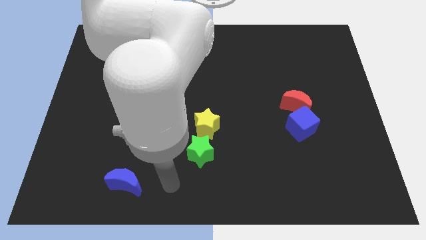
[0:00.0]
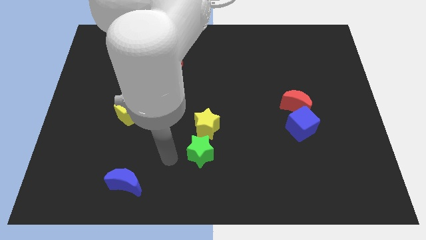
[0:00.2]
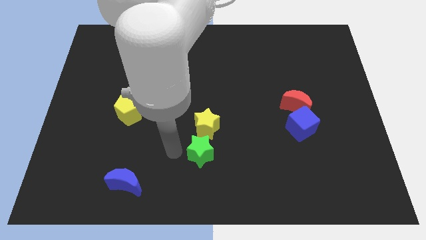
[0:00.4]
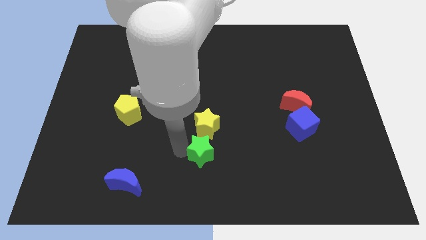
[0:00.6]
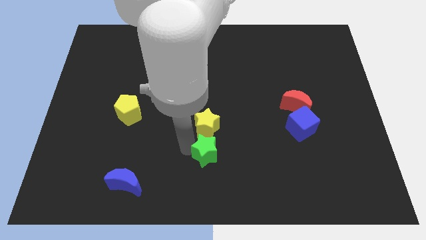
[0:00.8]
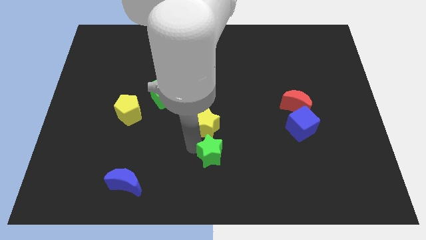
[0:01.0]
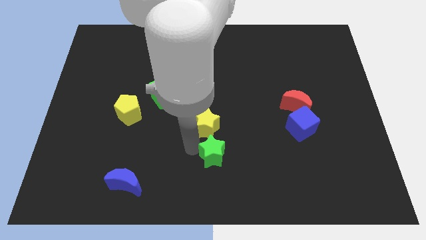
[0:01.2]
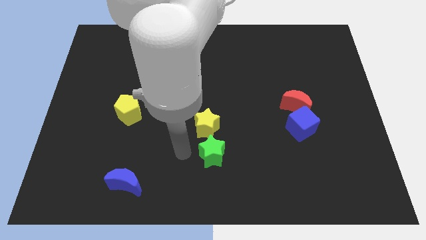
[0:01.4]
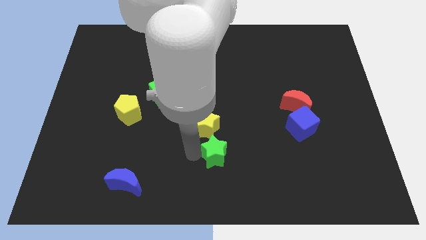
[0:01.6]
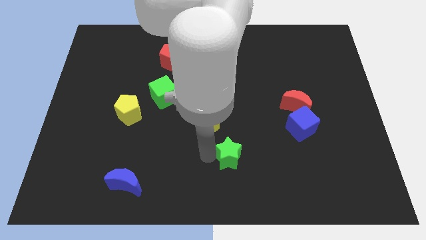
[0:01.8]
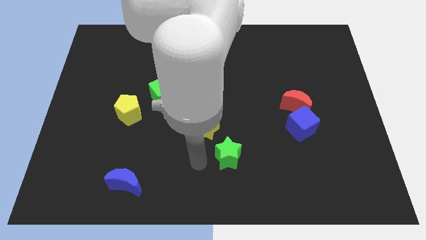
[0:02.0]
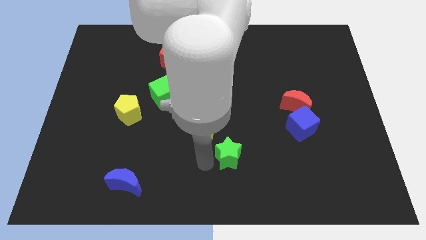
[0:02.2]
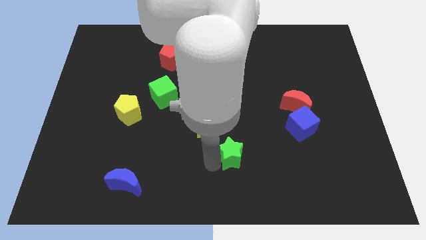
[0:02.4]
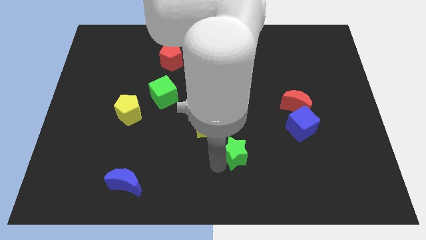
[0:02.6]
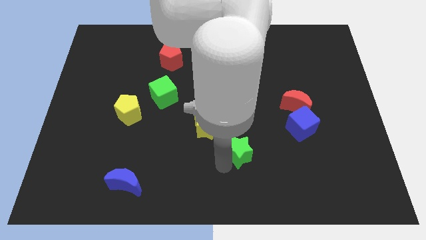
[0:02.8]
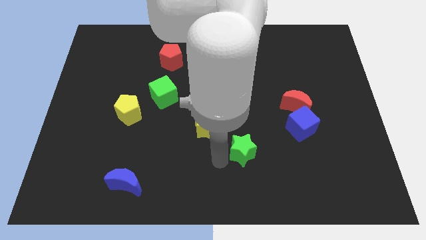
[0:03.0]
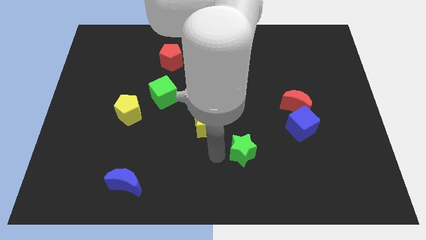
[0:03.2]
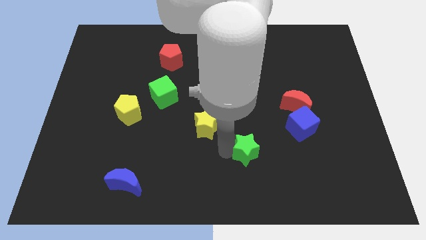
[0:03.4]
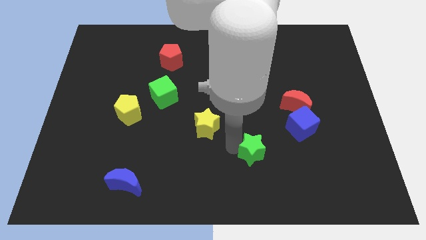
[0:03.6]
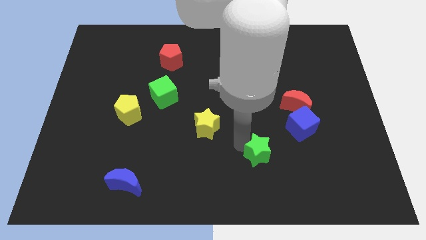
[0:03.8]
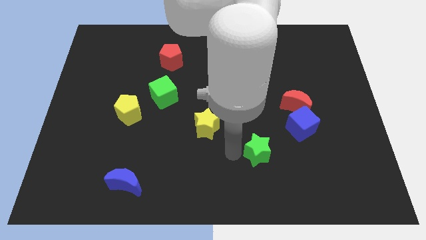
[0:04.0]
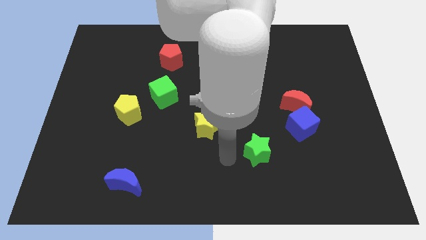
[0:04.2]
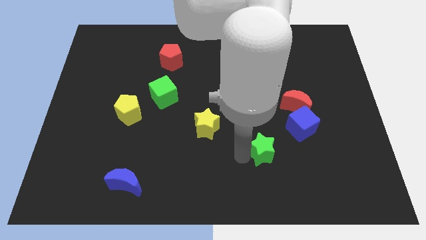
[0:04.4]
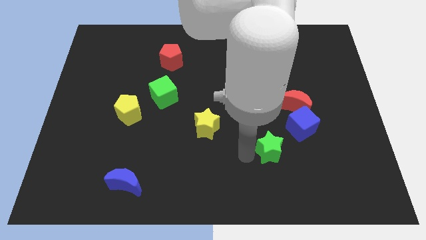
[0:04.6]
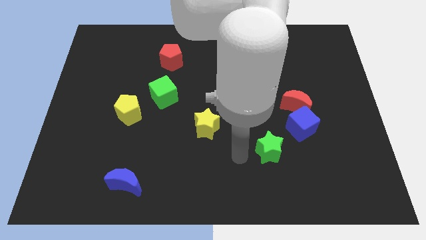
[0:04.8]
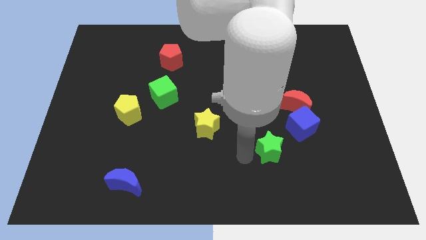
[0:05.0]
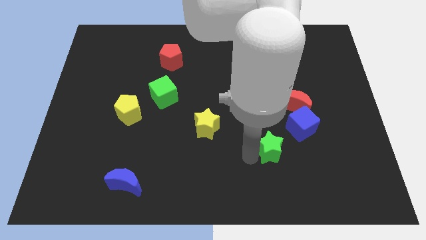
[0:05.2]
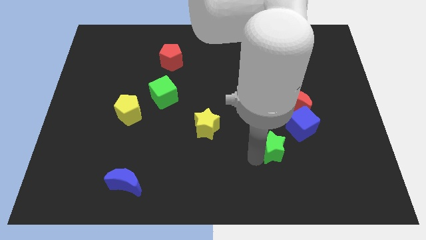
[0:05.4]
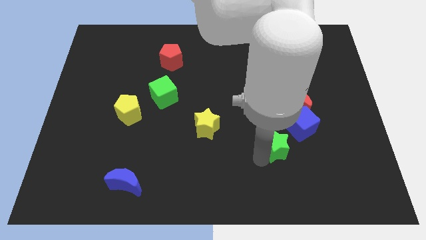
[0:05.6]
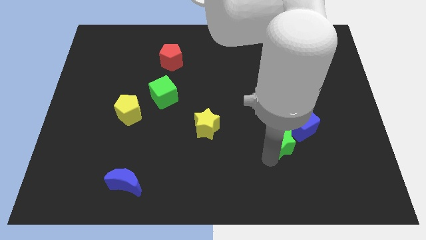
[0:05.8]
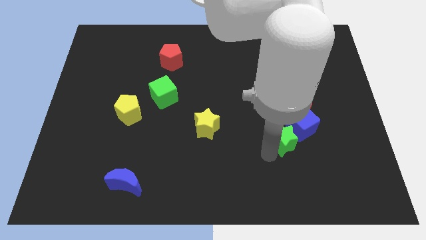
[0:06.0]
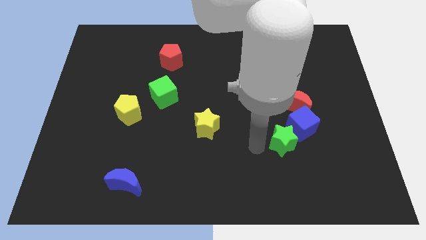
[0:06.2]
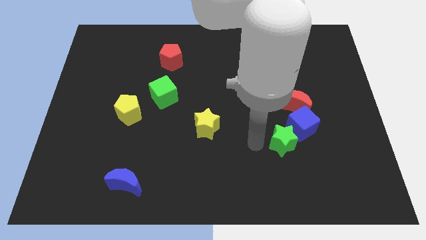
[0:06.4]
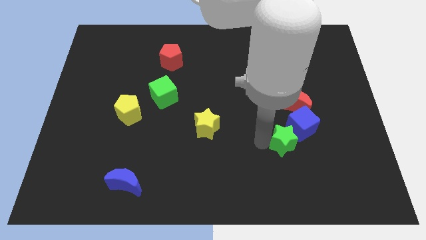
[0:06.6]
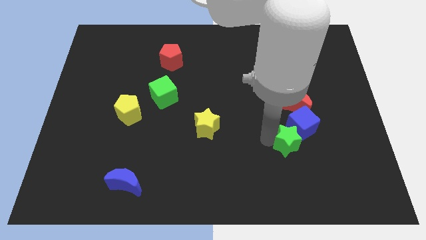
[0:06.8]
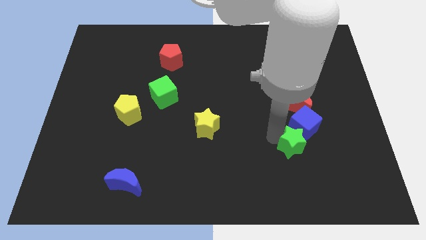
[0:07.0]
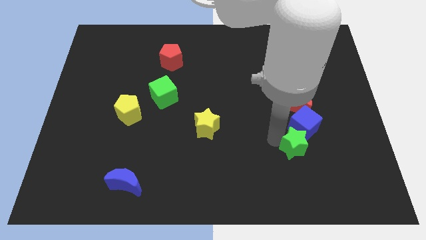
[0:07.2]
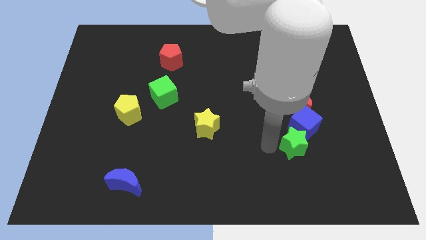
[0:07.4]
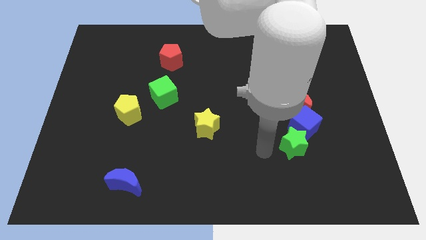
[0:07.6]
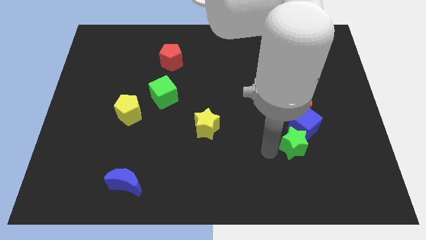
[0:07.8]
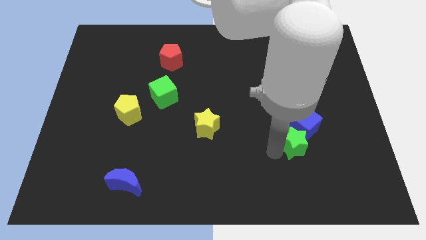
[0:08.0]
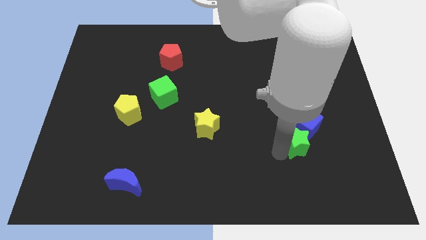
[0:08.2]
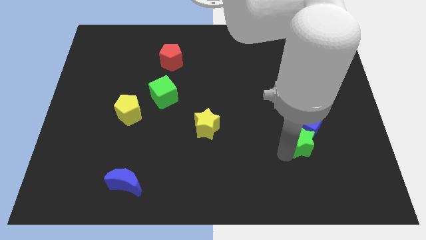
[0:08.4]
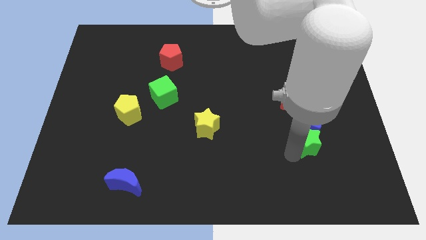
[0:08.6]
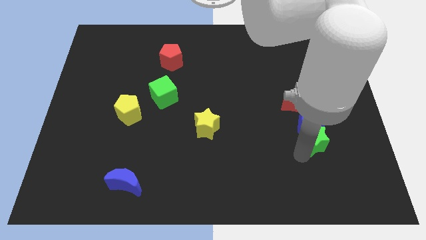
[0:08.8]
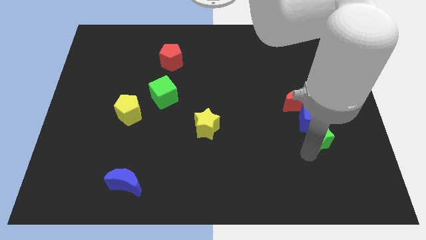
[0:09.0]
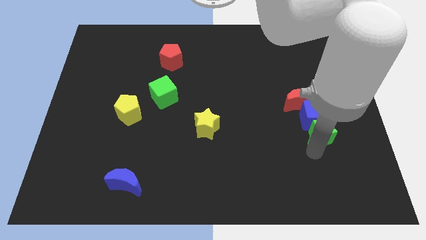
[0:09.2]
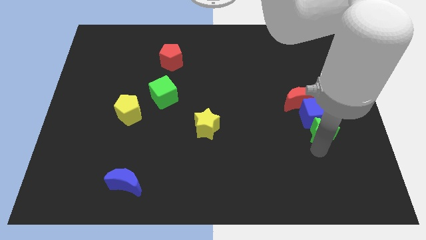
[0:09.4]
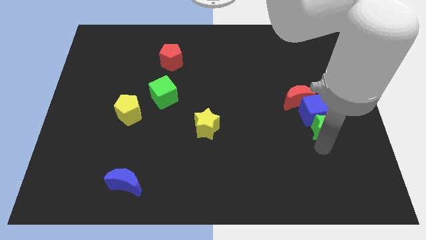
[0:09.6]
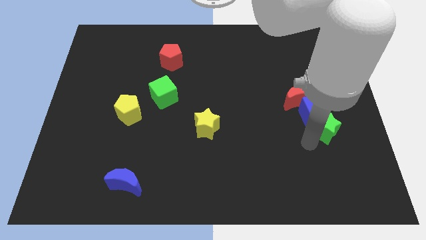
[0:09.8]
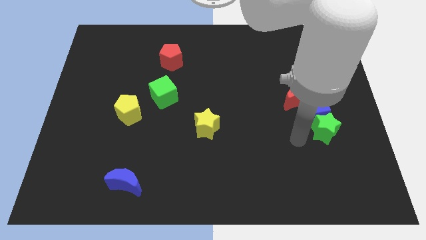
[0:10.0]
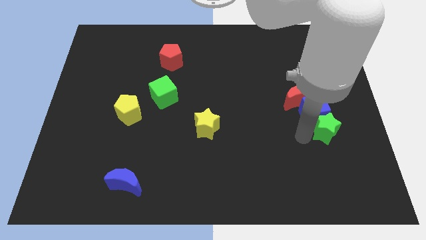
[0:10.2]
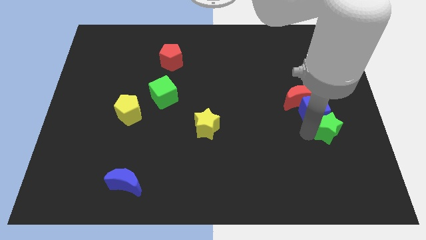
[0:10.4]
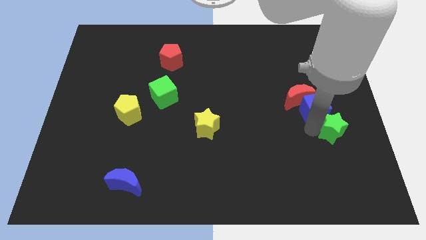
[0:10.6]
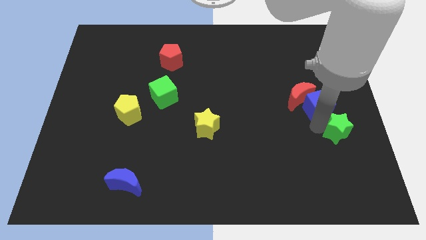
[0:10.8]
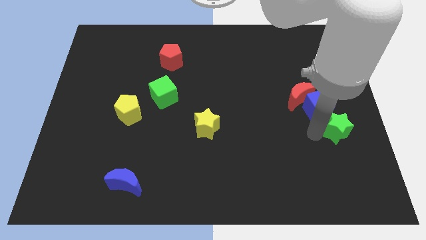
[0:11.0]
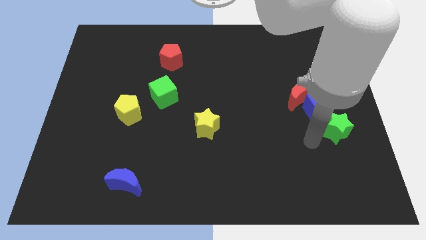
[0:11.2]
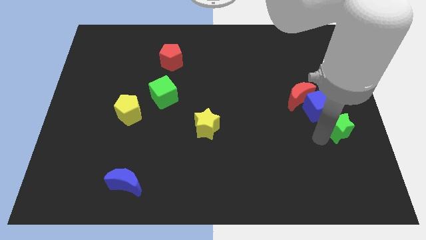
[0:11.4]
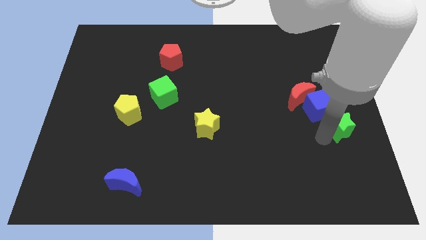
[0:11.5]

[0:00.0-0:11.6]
slide the green star to the right side of the board
